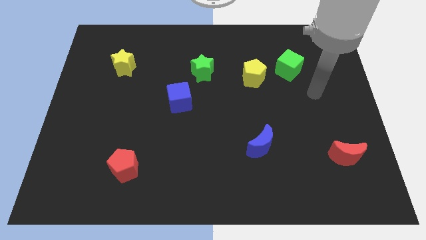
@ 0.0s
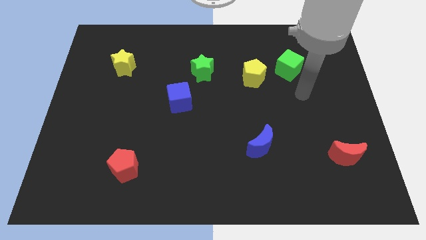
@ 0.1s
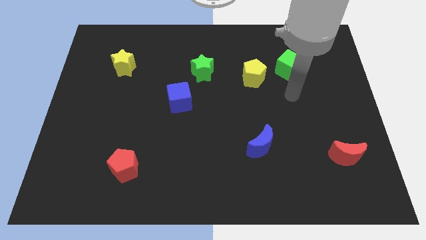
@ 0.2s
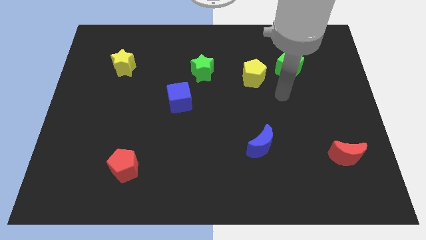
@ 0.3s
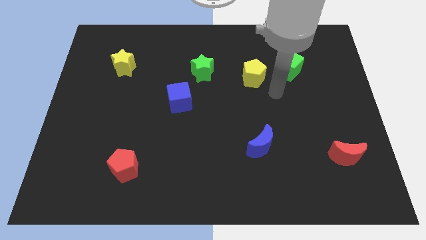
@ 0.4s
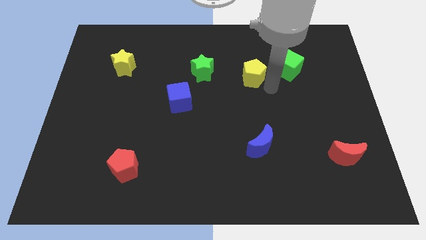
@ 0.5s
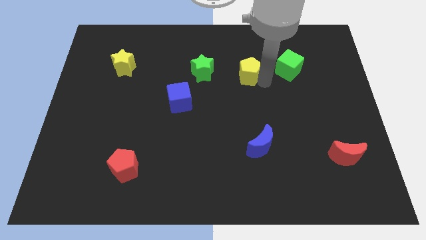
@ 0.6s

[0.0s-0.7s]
move the green cube away from the yellow pentagon

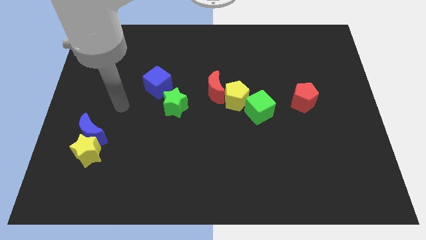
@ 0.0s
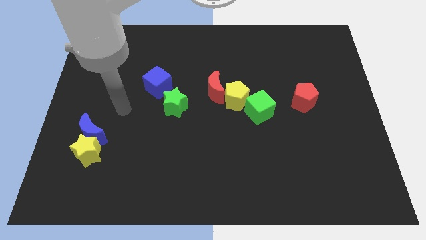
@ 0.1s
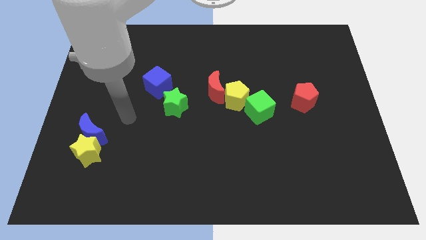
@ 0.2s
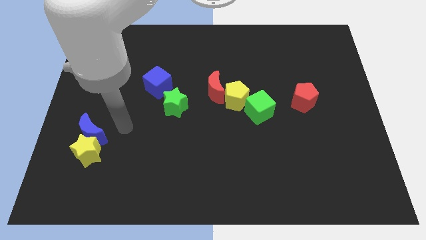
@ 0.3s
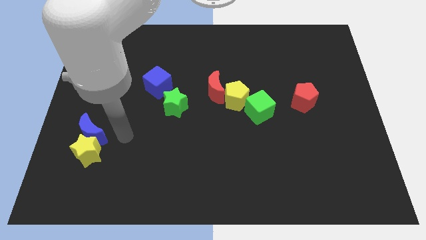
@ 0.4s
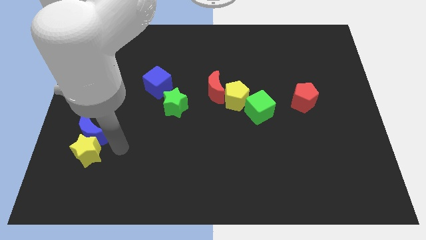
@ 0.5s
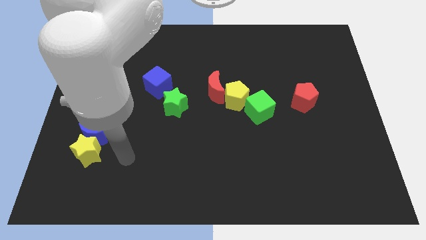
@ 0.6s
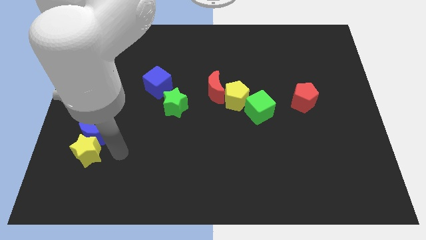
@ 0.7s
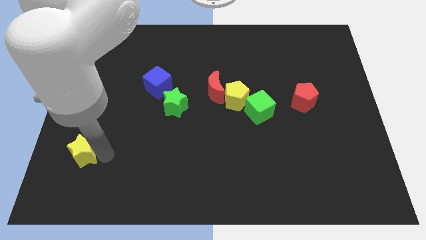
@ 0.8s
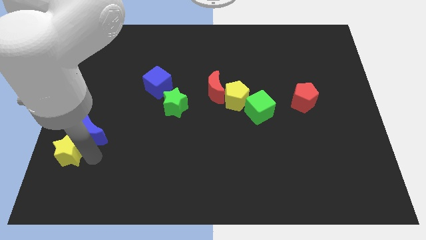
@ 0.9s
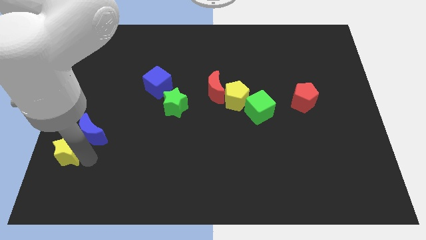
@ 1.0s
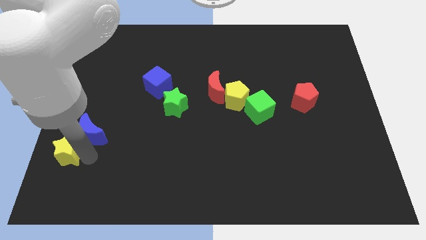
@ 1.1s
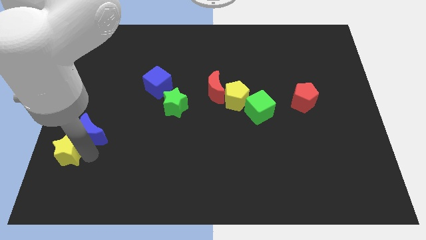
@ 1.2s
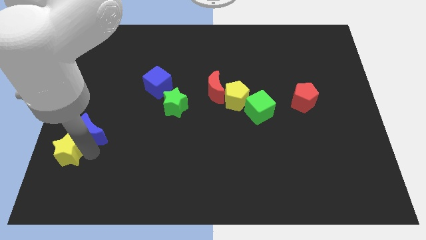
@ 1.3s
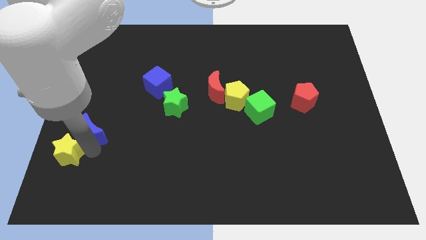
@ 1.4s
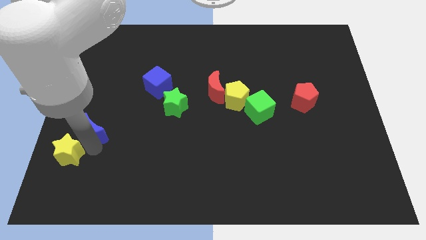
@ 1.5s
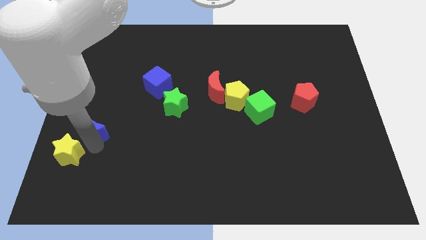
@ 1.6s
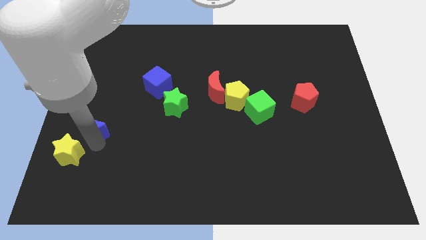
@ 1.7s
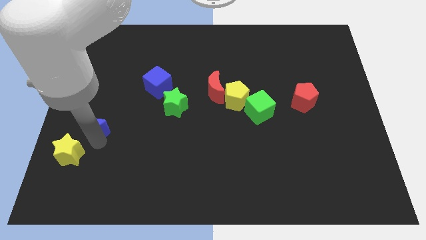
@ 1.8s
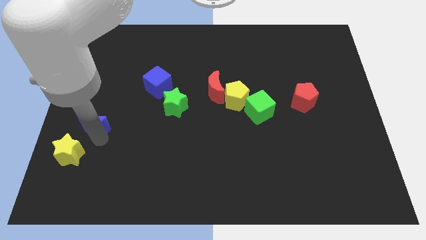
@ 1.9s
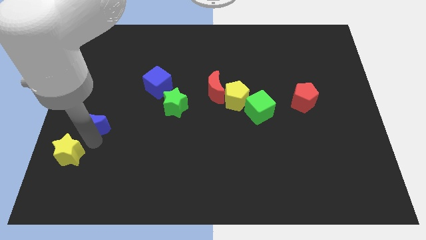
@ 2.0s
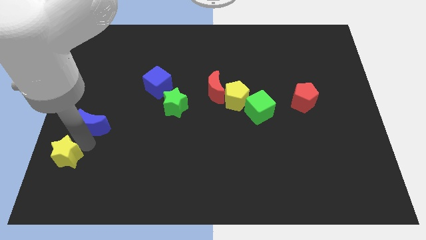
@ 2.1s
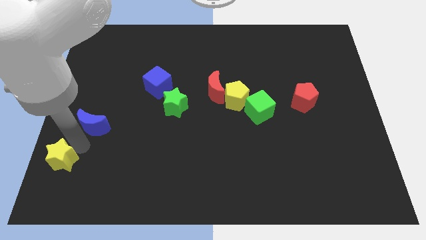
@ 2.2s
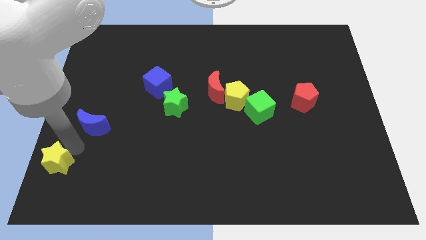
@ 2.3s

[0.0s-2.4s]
separate the blue moon from the yellow star

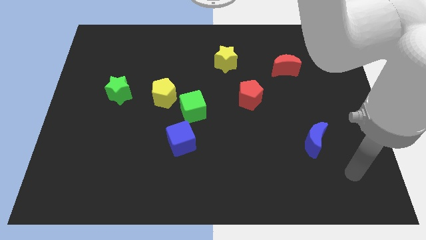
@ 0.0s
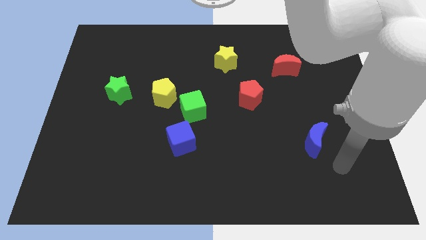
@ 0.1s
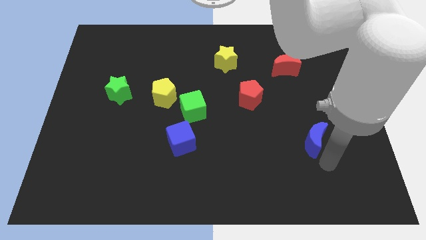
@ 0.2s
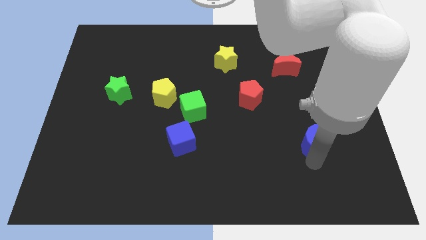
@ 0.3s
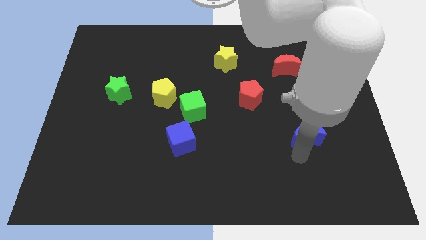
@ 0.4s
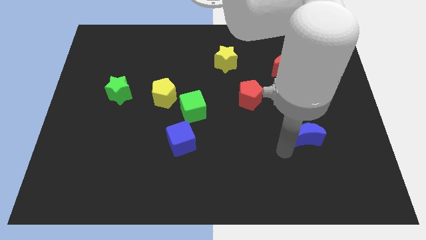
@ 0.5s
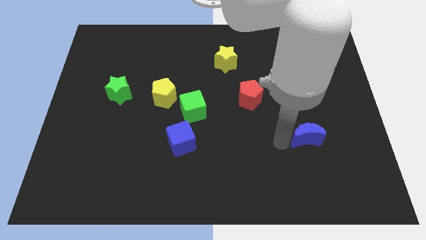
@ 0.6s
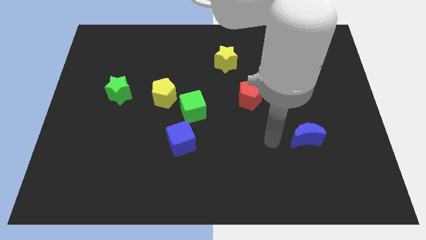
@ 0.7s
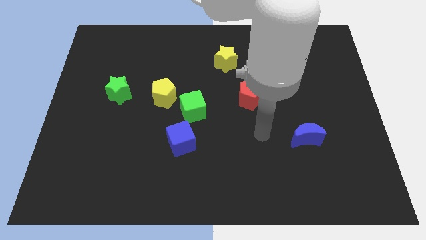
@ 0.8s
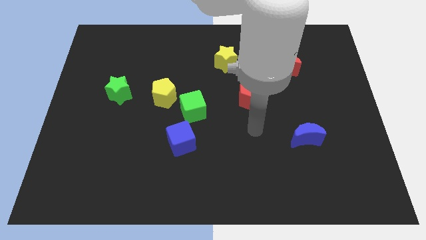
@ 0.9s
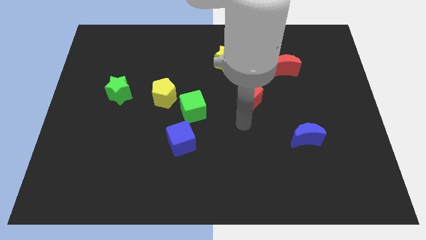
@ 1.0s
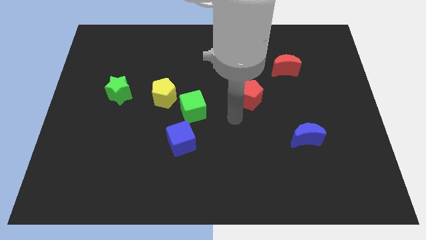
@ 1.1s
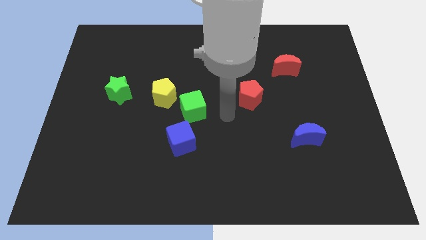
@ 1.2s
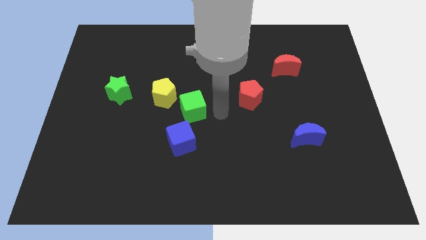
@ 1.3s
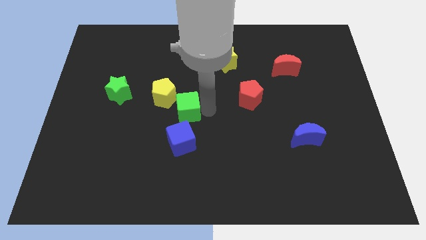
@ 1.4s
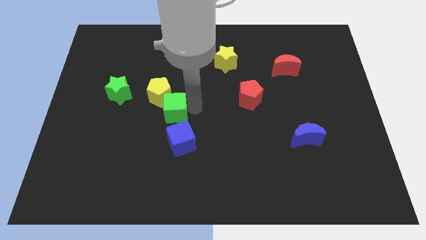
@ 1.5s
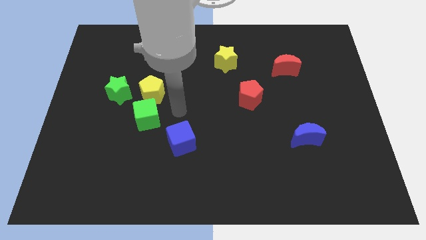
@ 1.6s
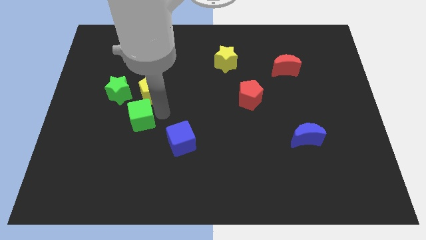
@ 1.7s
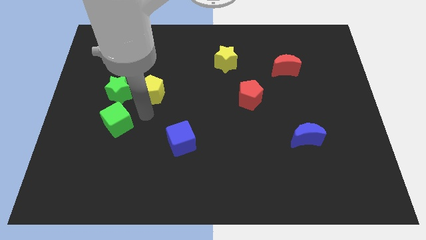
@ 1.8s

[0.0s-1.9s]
move the yellow pentagon away from the green cube

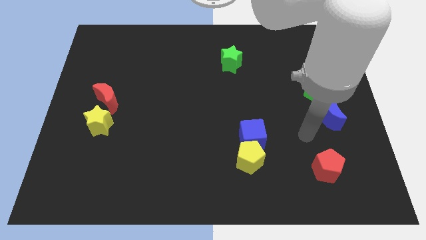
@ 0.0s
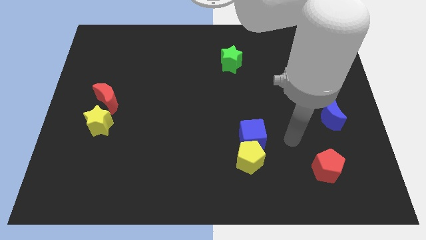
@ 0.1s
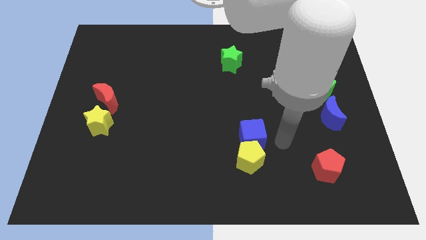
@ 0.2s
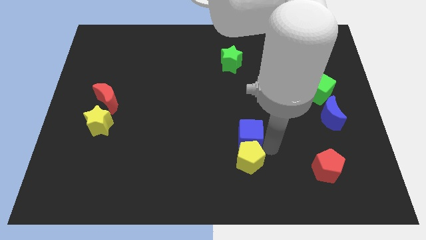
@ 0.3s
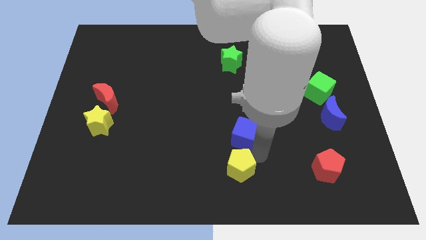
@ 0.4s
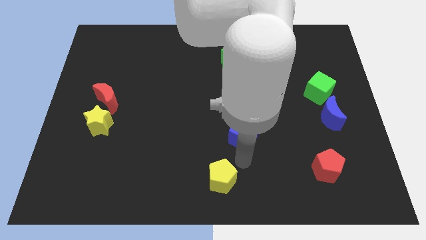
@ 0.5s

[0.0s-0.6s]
move the blue cube away from the yellow pentagon

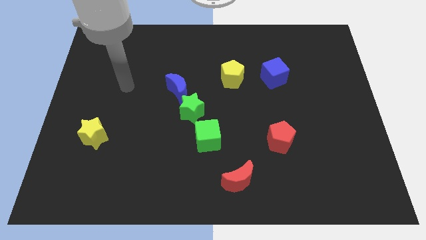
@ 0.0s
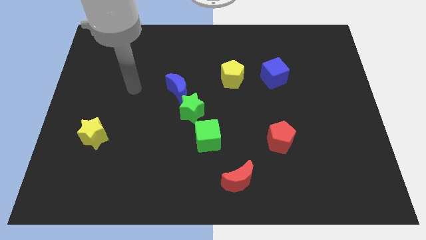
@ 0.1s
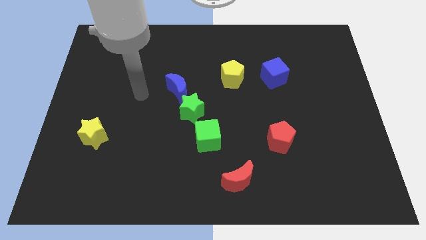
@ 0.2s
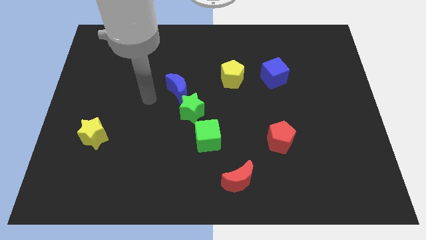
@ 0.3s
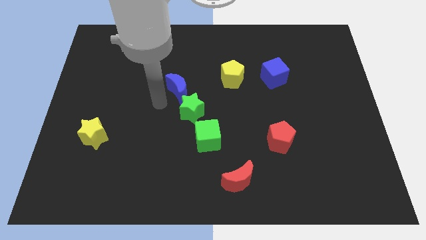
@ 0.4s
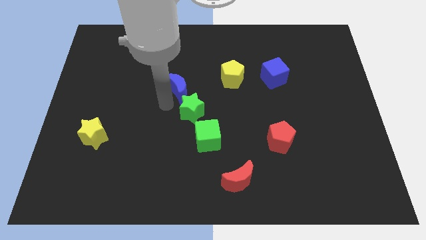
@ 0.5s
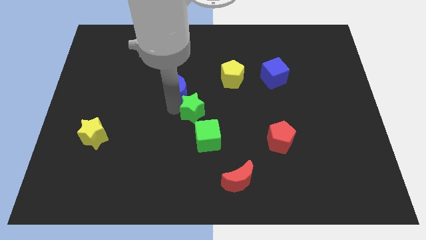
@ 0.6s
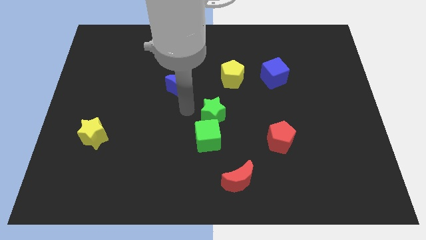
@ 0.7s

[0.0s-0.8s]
move the blue moon away from the green star

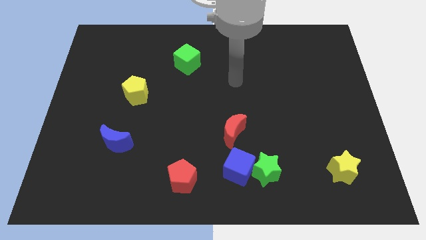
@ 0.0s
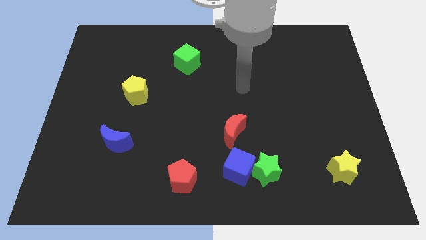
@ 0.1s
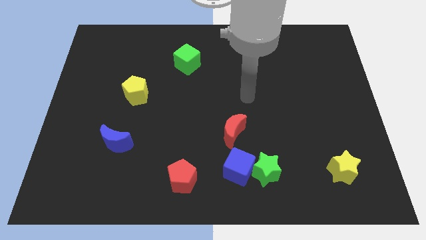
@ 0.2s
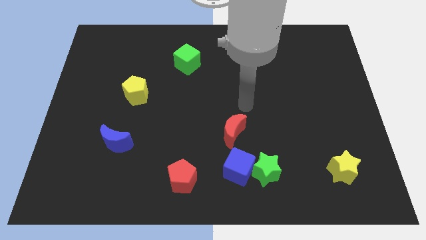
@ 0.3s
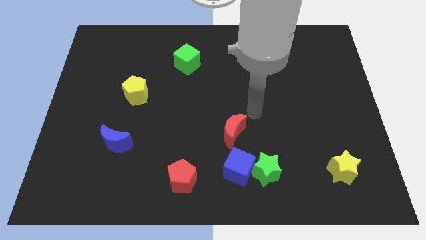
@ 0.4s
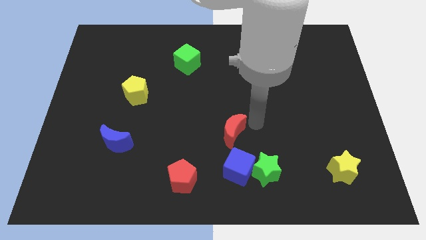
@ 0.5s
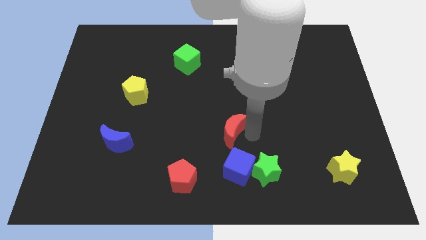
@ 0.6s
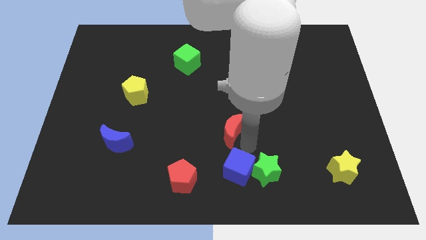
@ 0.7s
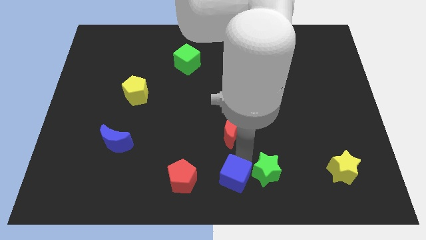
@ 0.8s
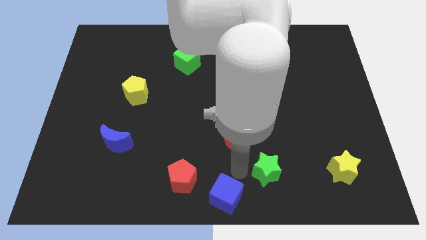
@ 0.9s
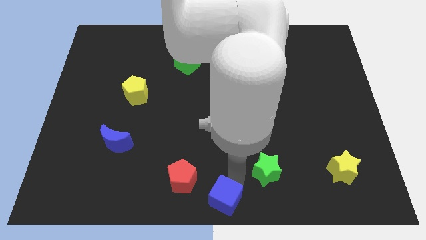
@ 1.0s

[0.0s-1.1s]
move the green star away from the blue cube

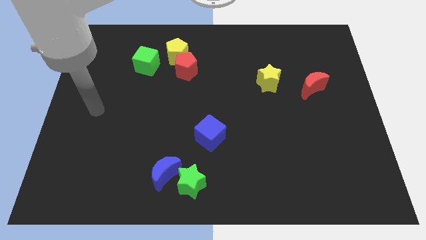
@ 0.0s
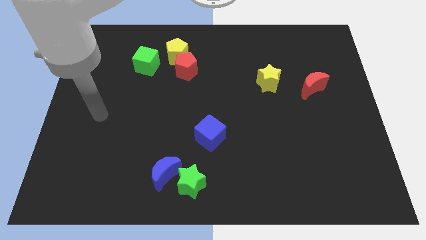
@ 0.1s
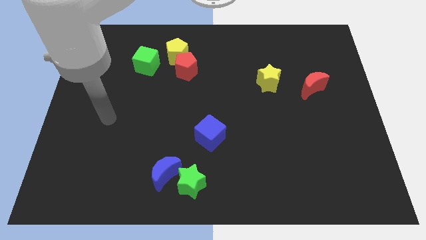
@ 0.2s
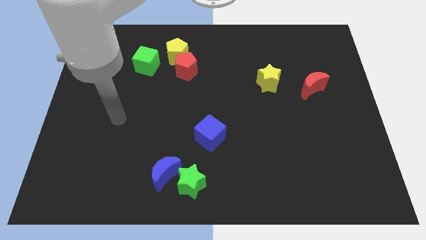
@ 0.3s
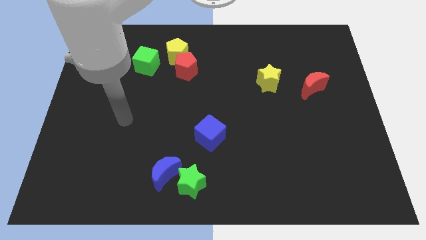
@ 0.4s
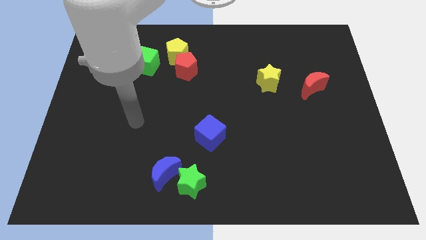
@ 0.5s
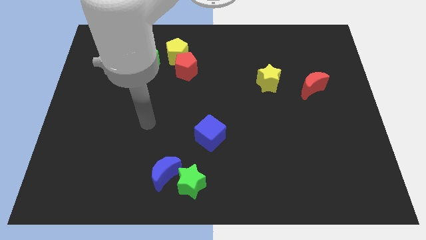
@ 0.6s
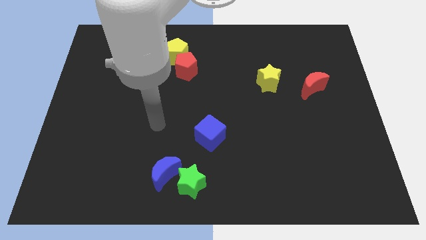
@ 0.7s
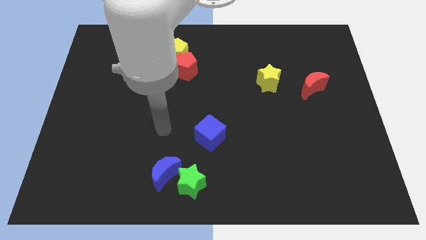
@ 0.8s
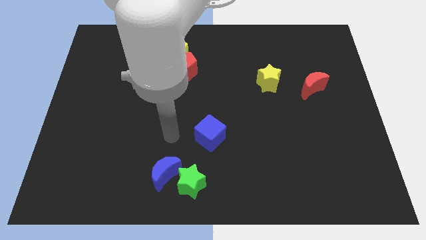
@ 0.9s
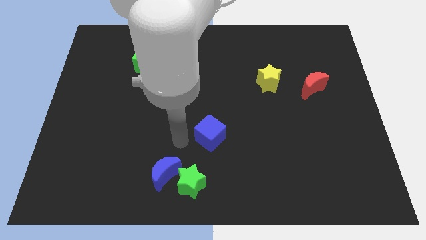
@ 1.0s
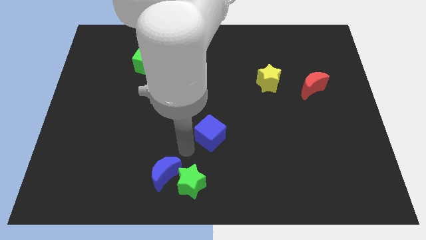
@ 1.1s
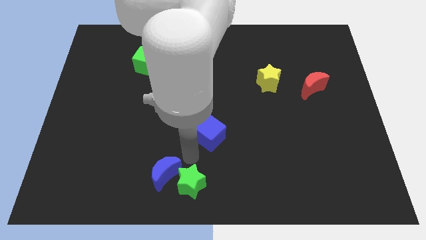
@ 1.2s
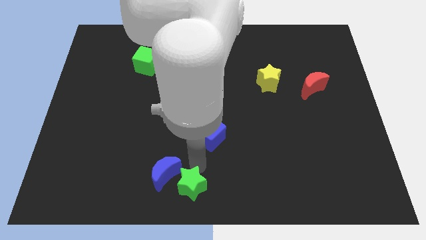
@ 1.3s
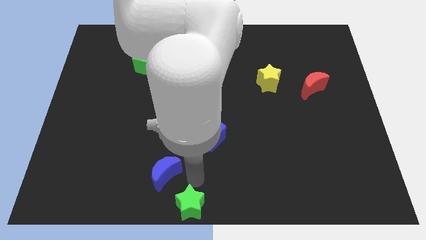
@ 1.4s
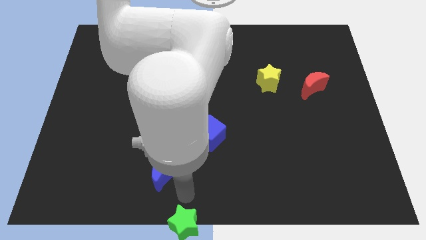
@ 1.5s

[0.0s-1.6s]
pull the blue moon apart from the green star

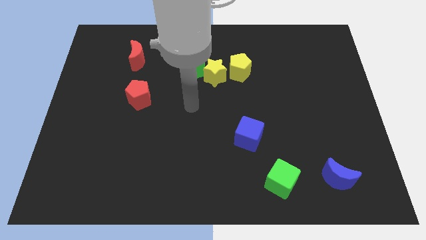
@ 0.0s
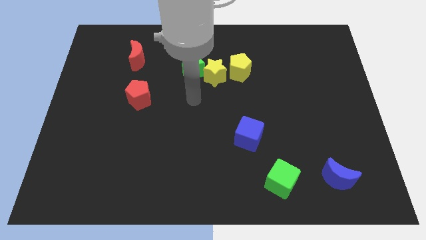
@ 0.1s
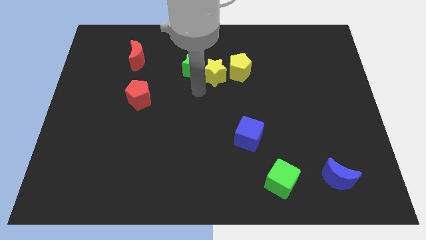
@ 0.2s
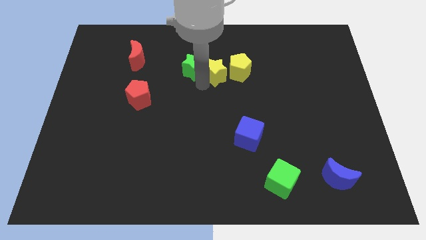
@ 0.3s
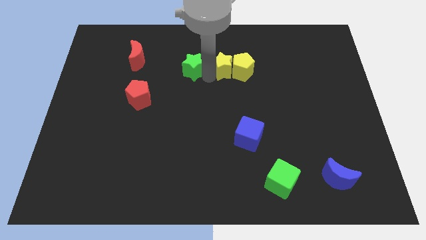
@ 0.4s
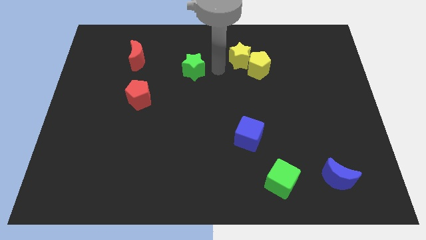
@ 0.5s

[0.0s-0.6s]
move the green star away from the yellow star
